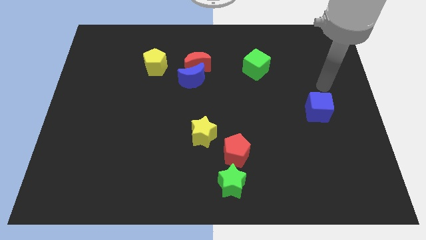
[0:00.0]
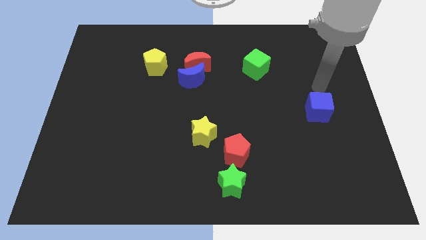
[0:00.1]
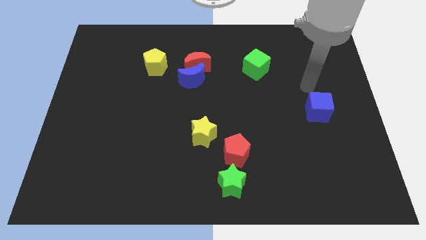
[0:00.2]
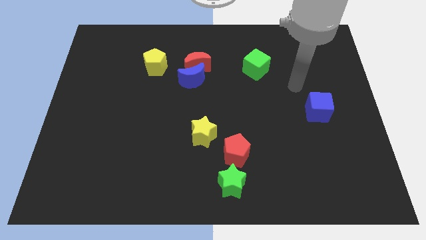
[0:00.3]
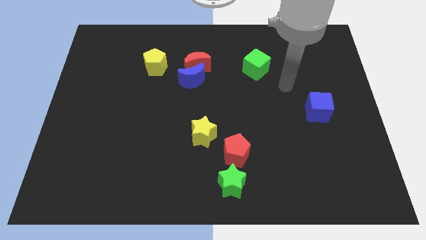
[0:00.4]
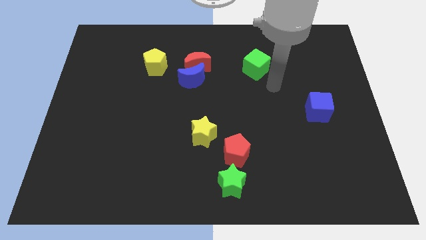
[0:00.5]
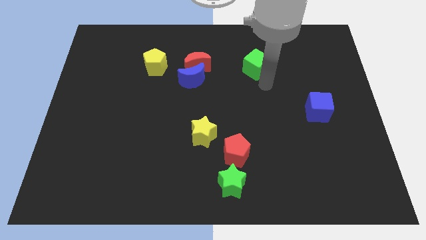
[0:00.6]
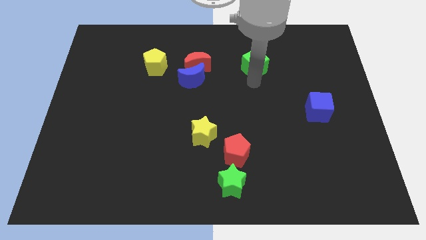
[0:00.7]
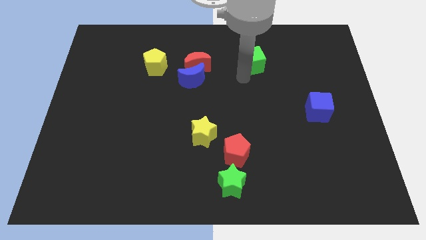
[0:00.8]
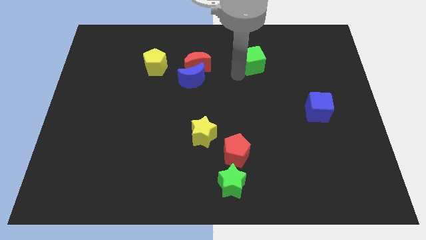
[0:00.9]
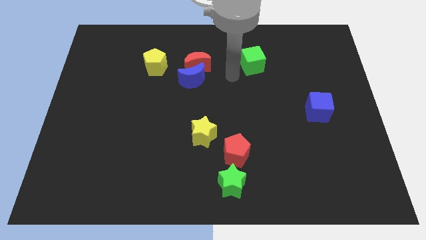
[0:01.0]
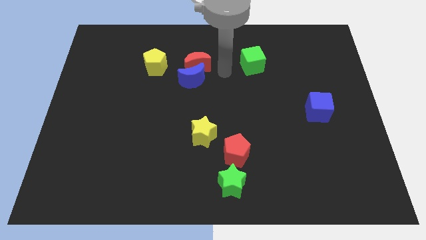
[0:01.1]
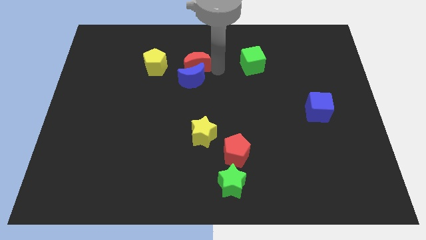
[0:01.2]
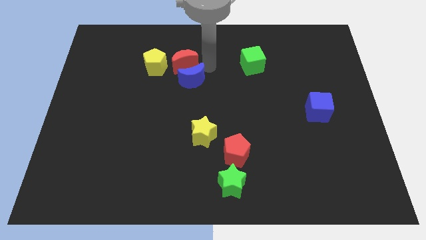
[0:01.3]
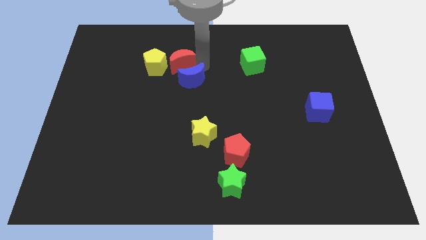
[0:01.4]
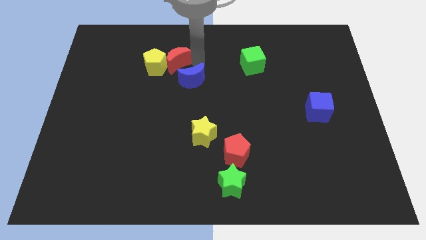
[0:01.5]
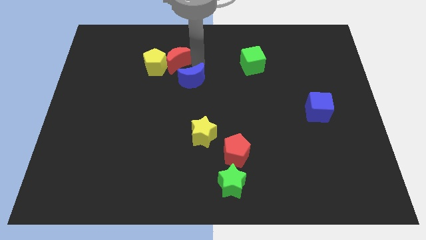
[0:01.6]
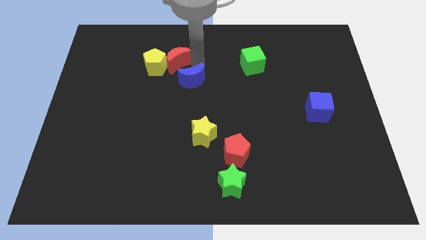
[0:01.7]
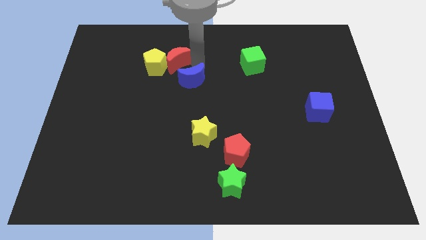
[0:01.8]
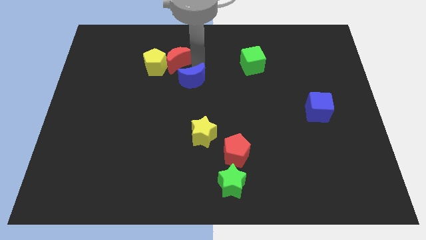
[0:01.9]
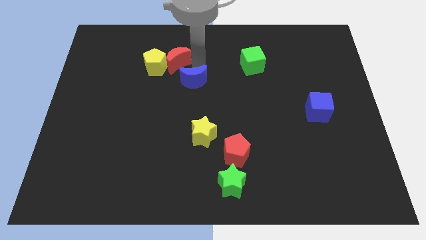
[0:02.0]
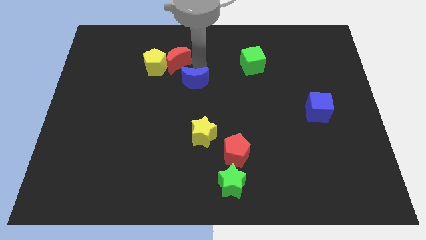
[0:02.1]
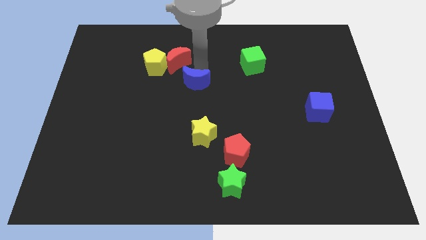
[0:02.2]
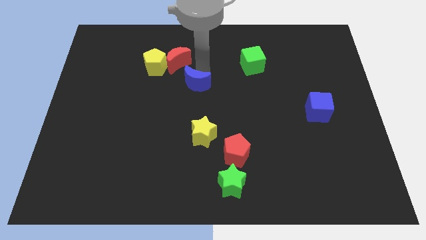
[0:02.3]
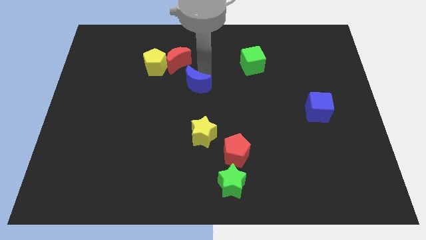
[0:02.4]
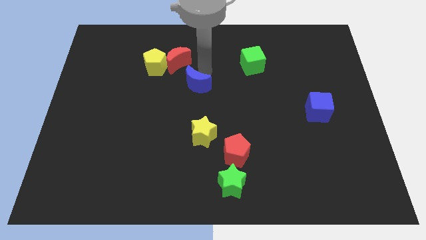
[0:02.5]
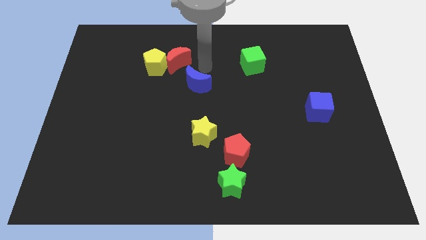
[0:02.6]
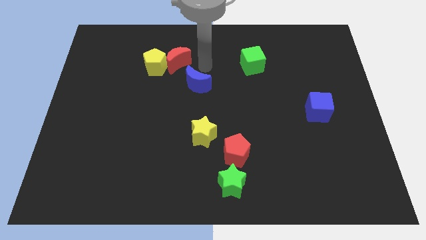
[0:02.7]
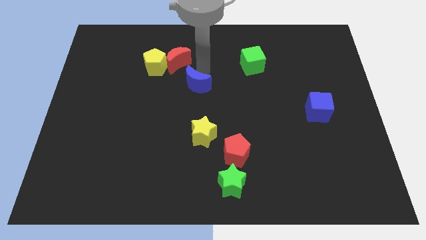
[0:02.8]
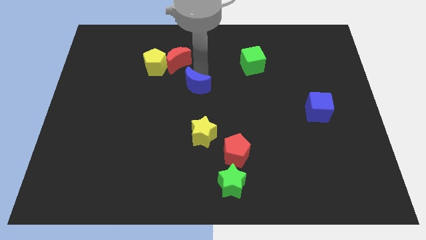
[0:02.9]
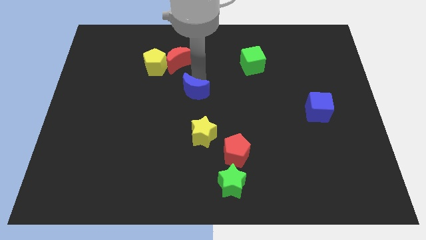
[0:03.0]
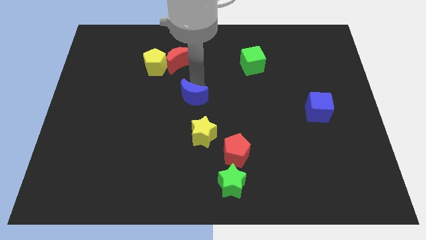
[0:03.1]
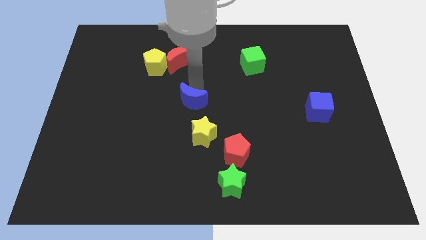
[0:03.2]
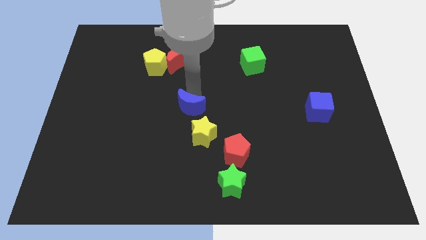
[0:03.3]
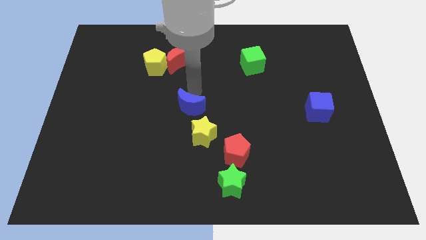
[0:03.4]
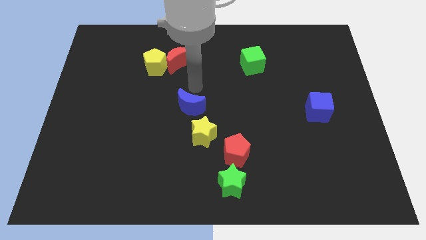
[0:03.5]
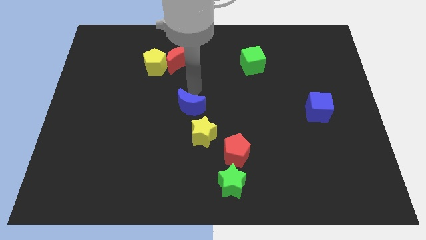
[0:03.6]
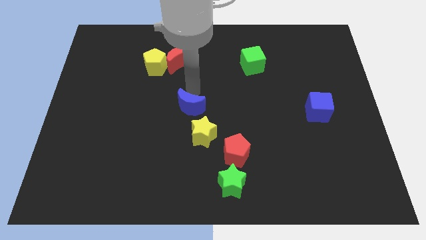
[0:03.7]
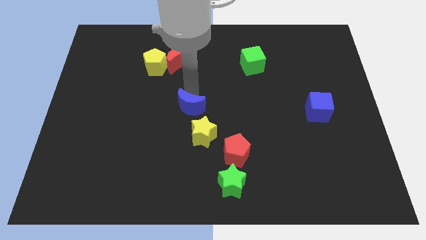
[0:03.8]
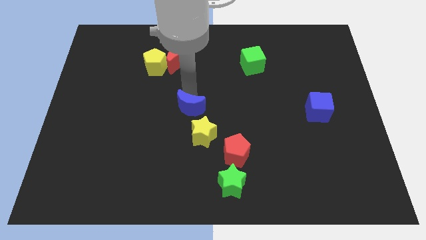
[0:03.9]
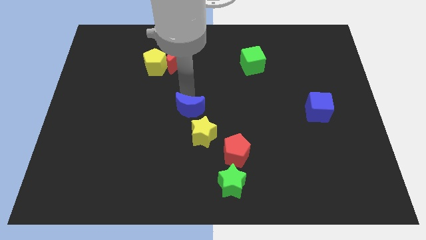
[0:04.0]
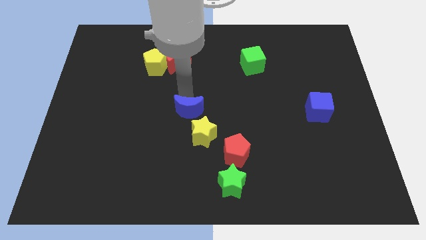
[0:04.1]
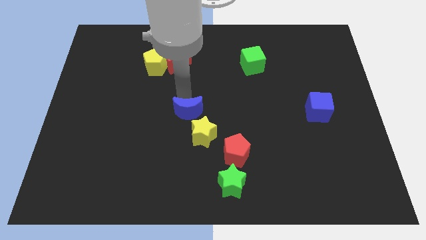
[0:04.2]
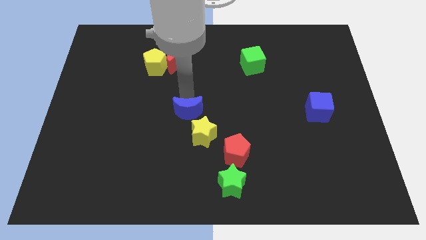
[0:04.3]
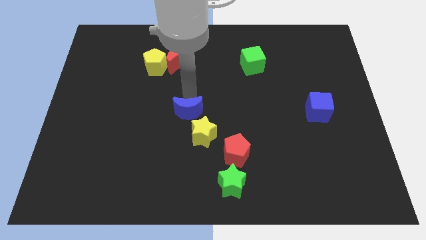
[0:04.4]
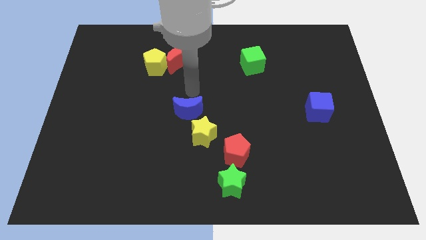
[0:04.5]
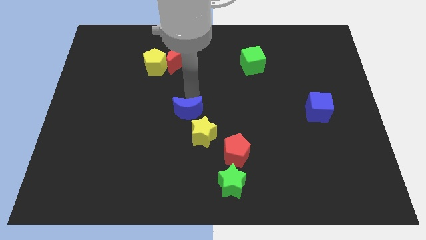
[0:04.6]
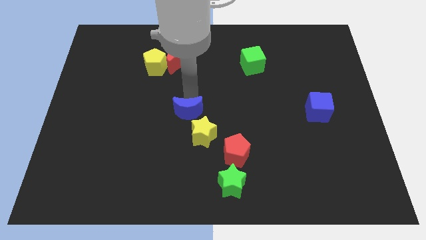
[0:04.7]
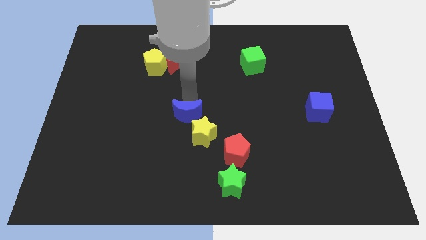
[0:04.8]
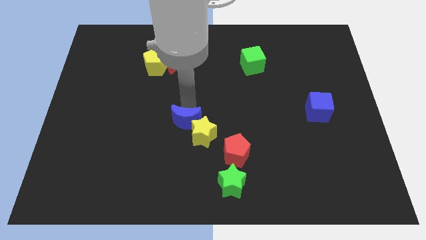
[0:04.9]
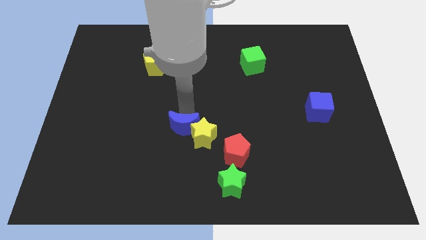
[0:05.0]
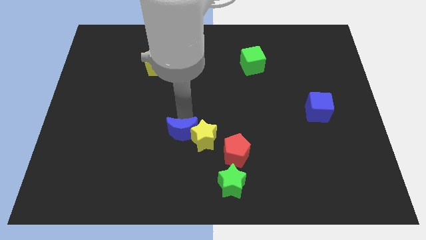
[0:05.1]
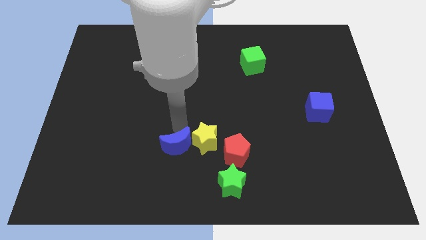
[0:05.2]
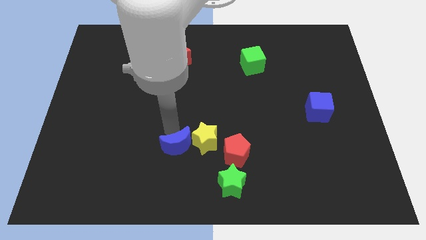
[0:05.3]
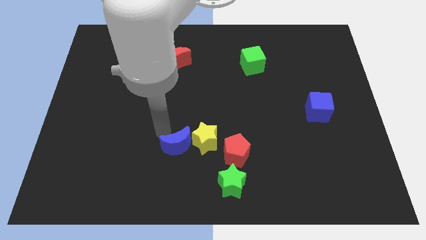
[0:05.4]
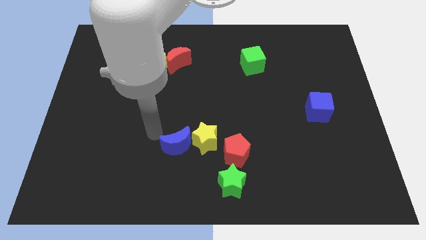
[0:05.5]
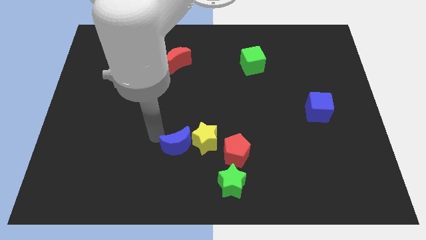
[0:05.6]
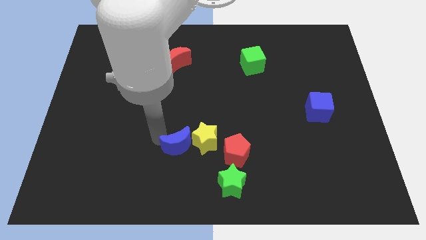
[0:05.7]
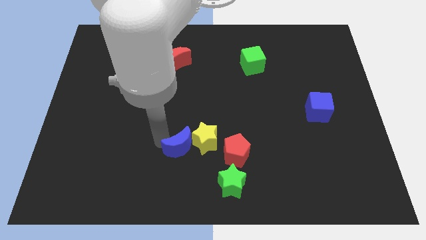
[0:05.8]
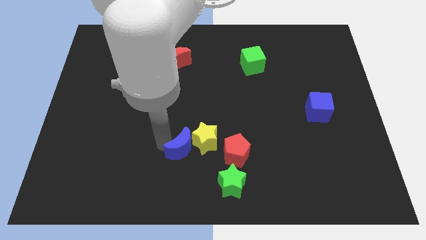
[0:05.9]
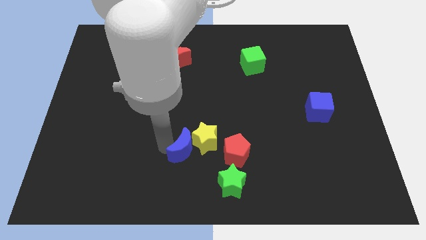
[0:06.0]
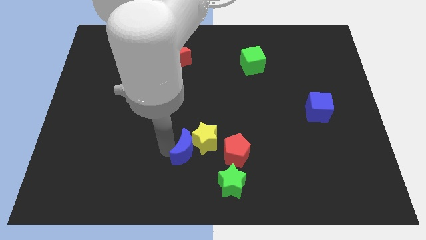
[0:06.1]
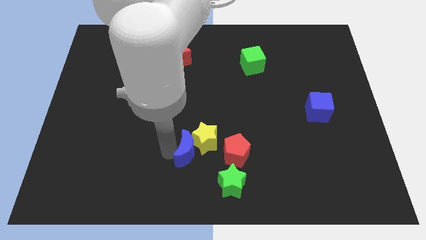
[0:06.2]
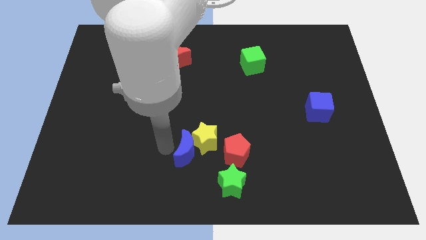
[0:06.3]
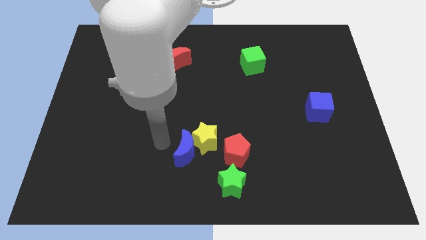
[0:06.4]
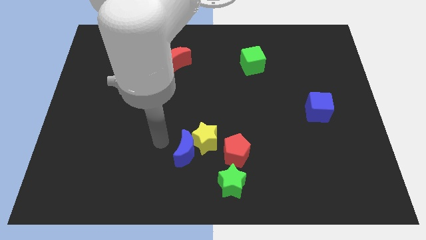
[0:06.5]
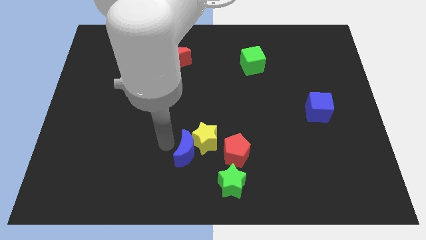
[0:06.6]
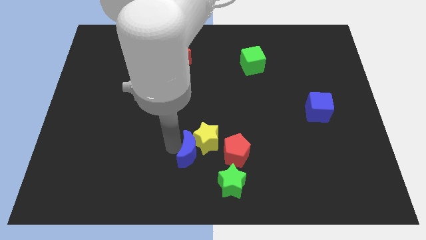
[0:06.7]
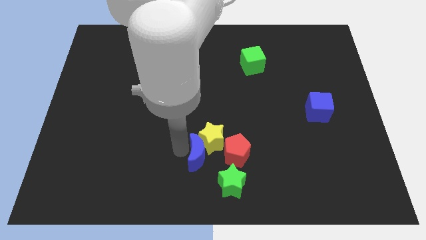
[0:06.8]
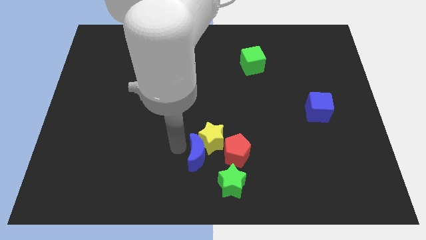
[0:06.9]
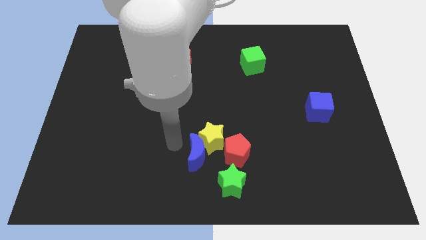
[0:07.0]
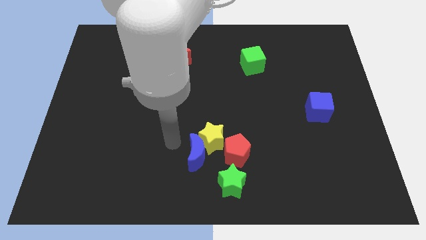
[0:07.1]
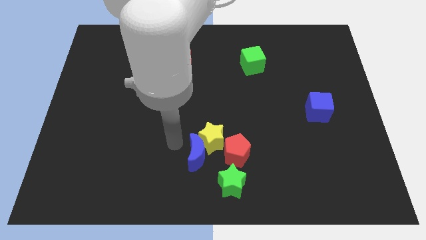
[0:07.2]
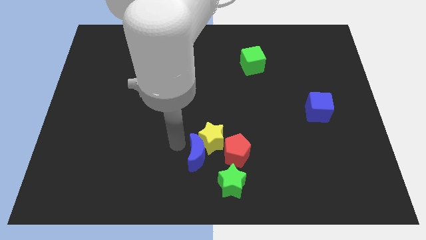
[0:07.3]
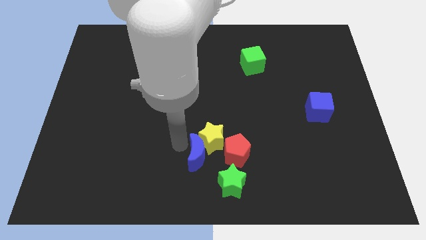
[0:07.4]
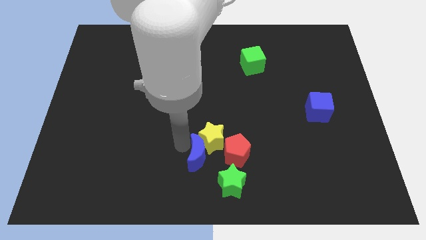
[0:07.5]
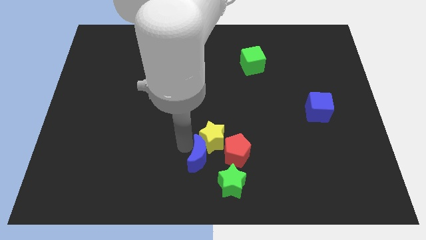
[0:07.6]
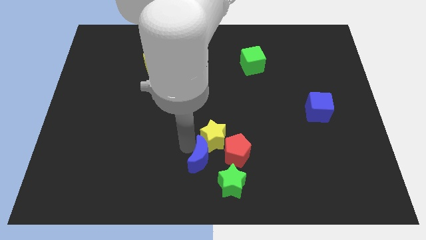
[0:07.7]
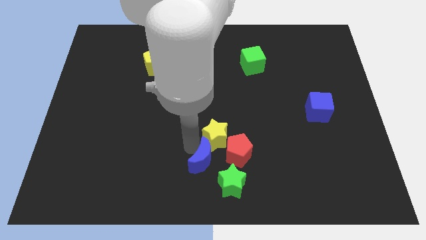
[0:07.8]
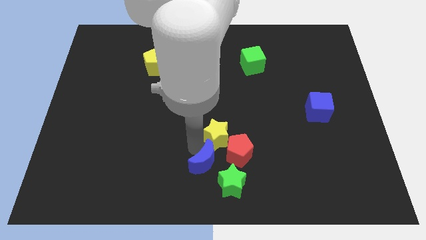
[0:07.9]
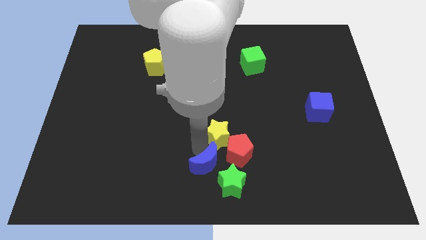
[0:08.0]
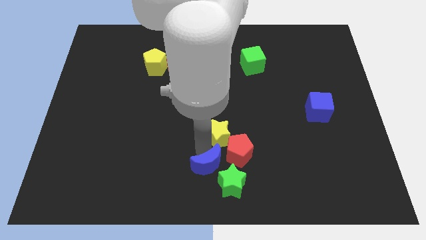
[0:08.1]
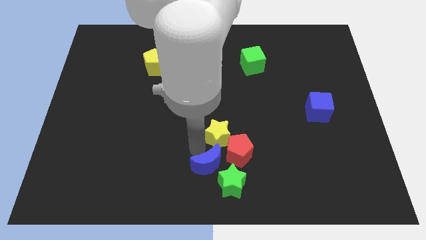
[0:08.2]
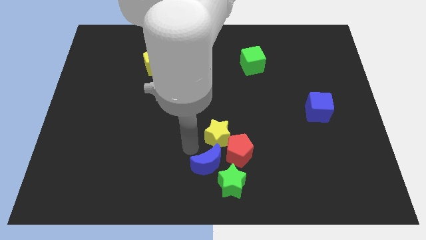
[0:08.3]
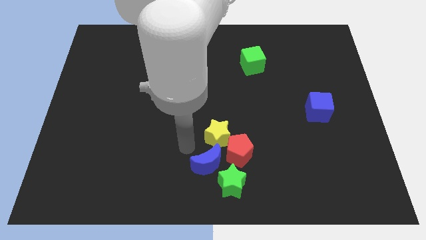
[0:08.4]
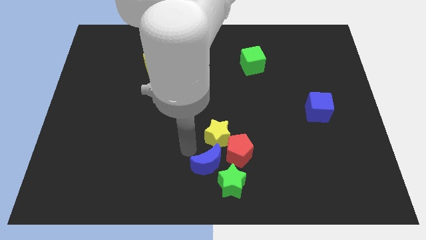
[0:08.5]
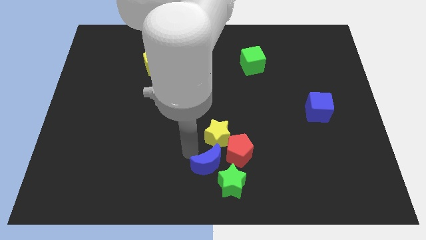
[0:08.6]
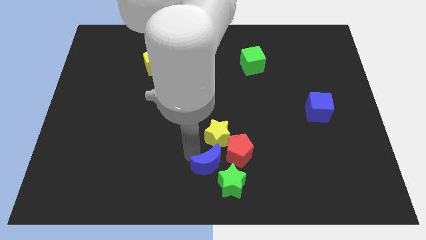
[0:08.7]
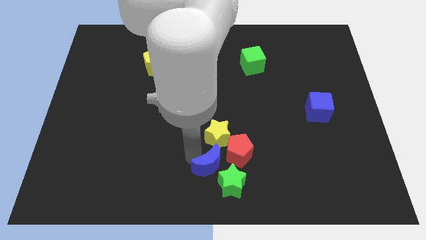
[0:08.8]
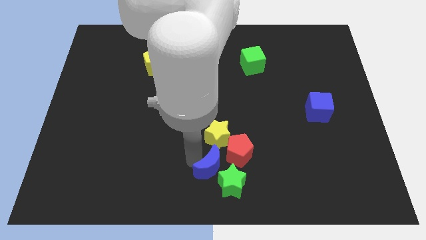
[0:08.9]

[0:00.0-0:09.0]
move the blue moon close to the green star
